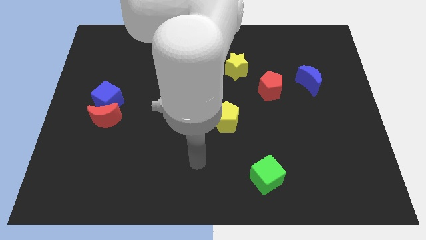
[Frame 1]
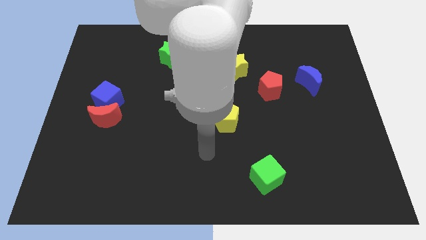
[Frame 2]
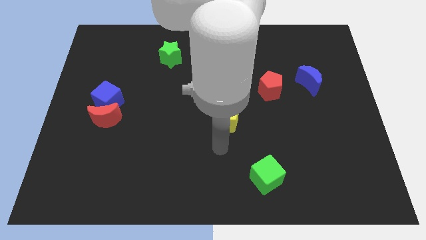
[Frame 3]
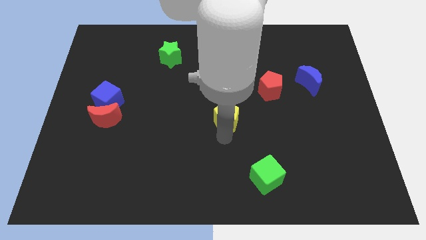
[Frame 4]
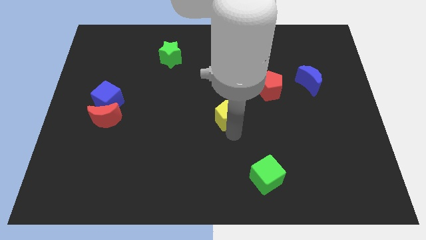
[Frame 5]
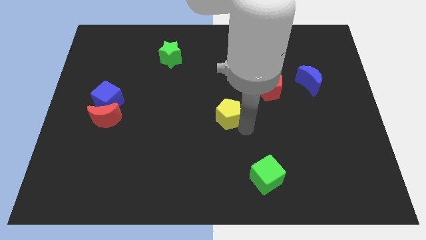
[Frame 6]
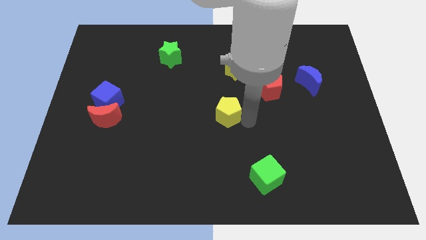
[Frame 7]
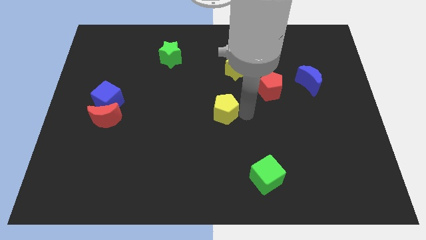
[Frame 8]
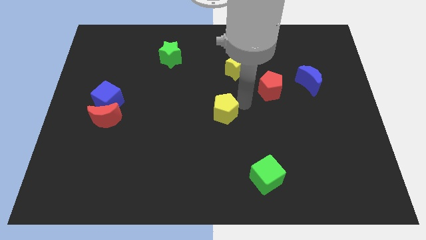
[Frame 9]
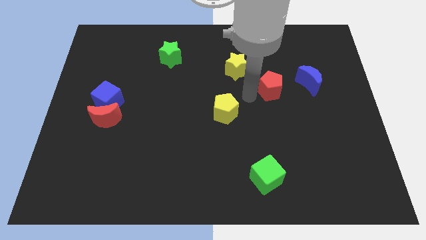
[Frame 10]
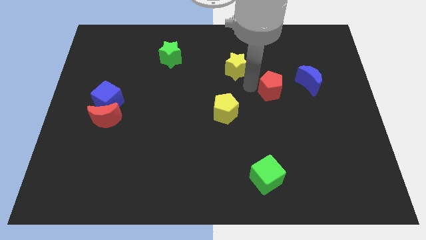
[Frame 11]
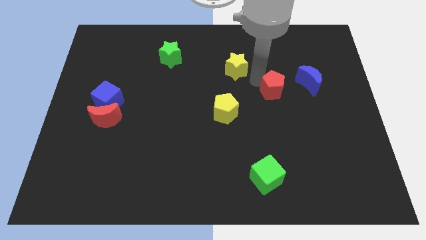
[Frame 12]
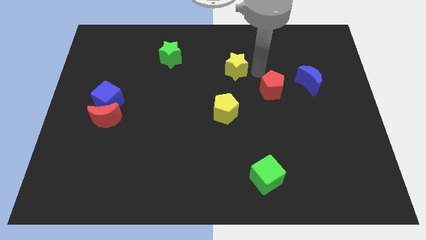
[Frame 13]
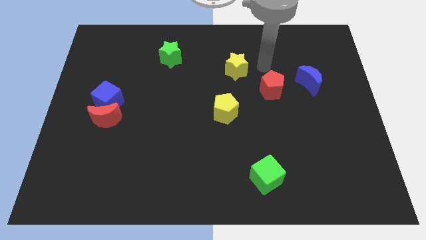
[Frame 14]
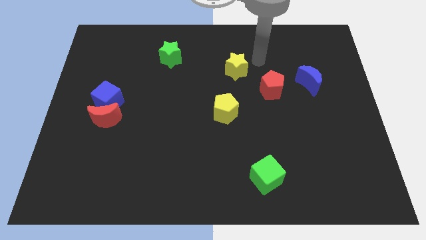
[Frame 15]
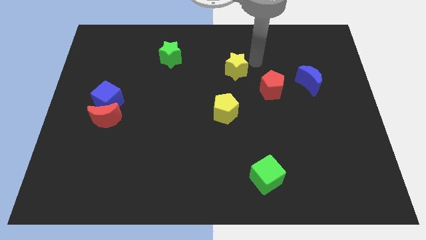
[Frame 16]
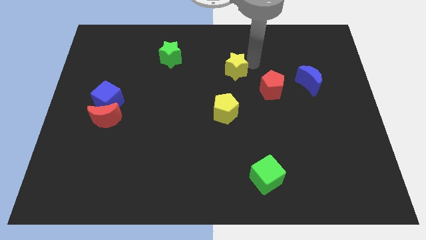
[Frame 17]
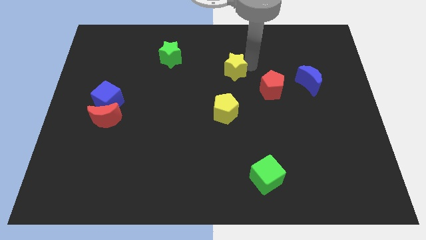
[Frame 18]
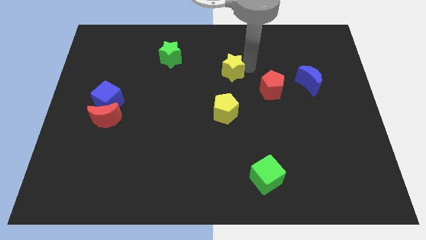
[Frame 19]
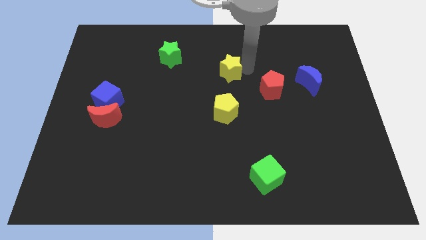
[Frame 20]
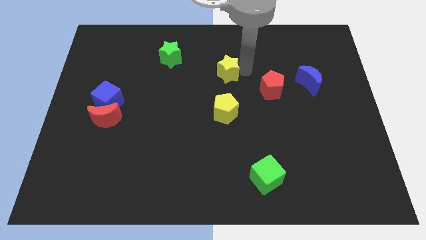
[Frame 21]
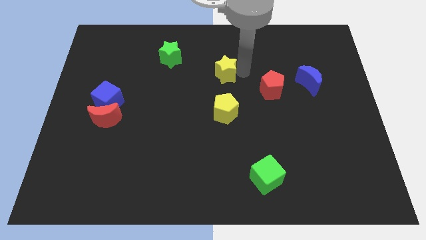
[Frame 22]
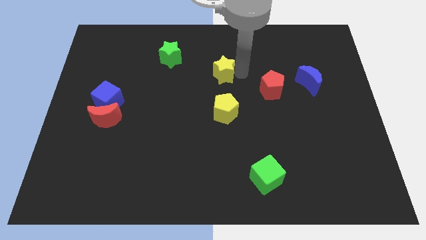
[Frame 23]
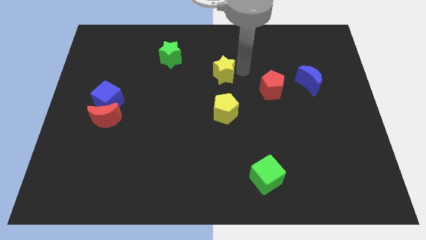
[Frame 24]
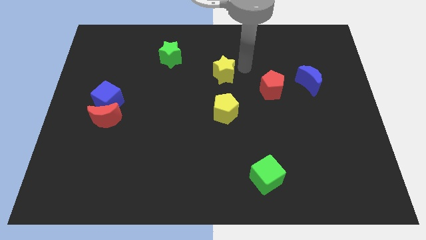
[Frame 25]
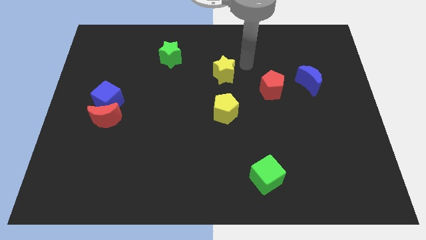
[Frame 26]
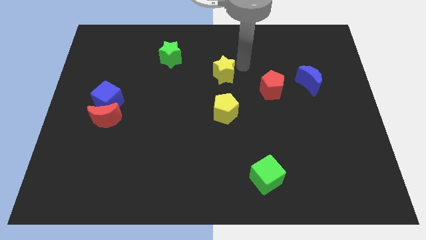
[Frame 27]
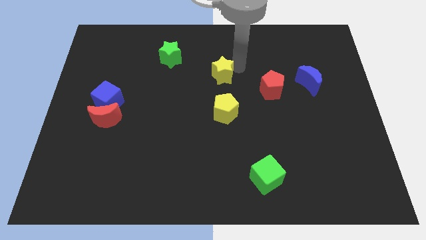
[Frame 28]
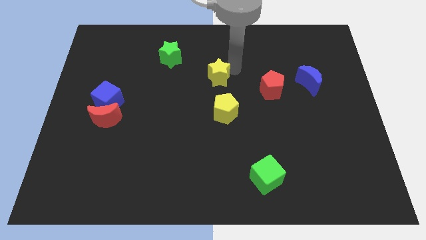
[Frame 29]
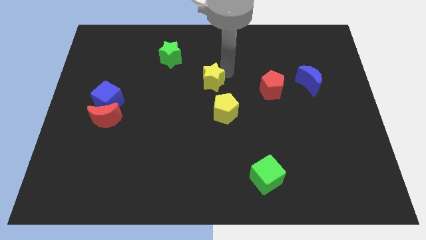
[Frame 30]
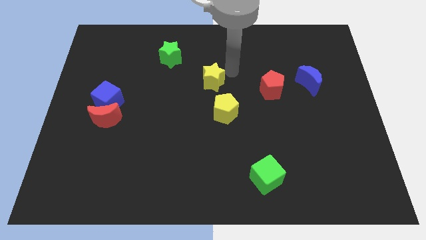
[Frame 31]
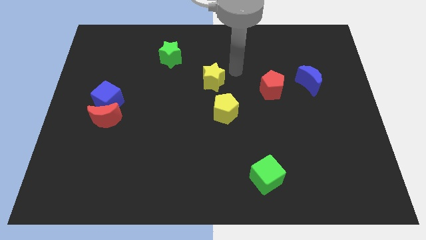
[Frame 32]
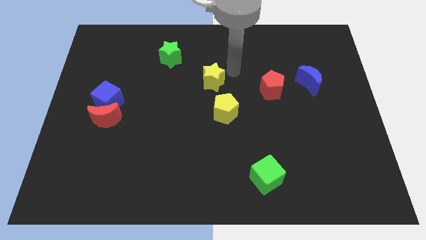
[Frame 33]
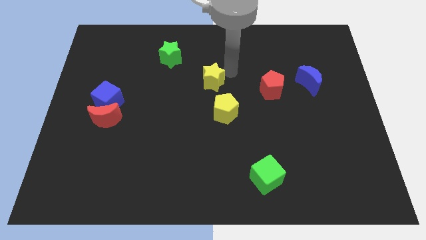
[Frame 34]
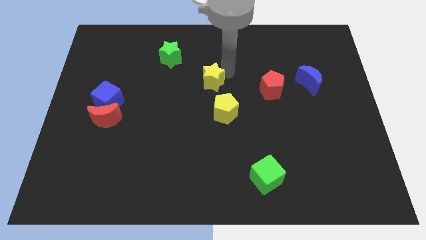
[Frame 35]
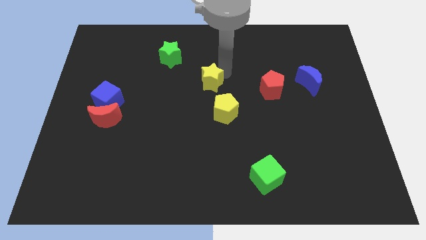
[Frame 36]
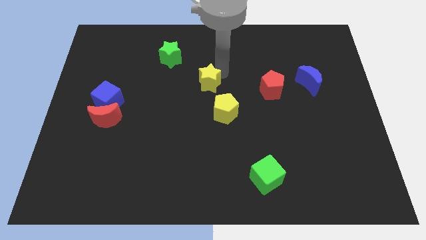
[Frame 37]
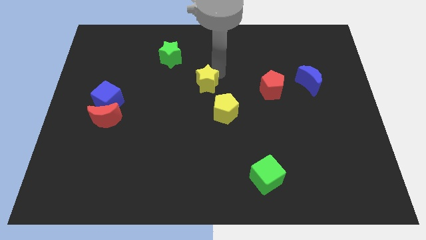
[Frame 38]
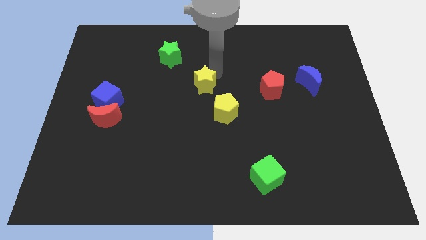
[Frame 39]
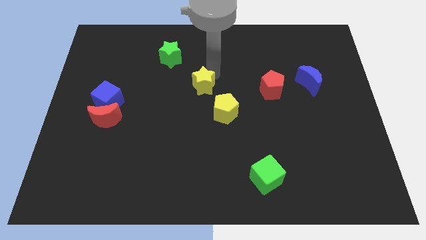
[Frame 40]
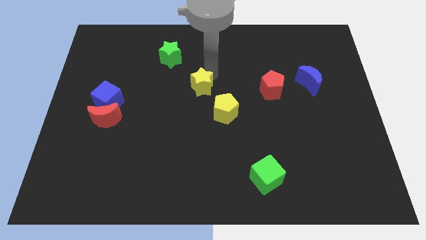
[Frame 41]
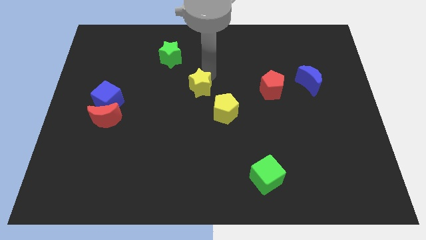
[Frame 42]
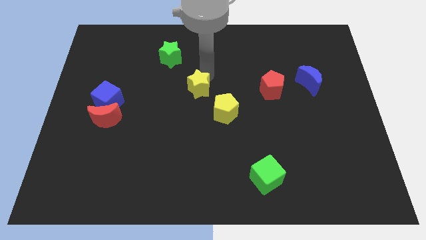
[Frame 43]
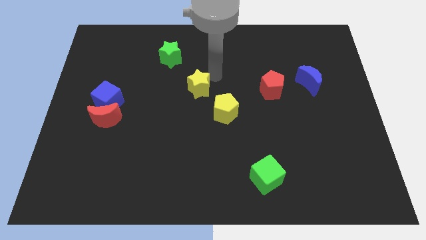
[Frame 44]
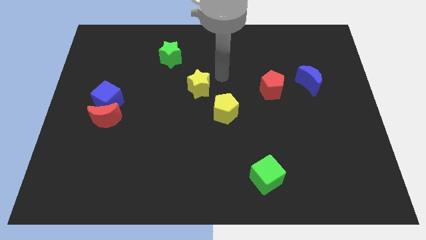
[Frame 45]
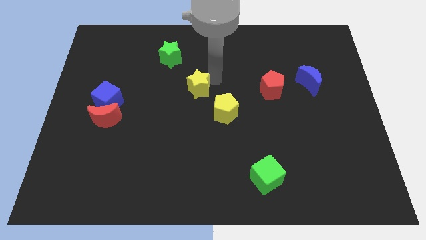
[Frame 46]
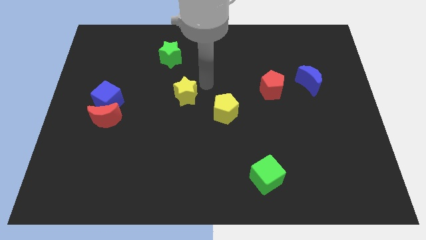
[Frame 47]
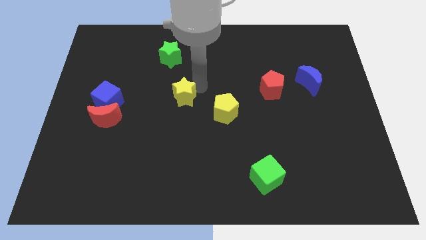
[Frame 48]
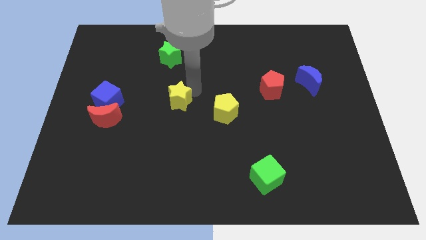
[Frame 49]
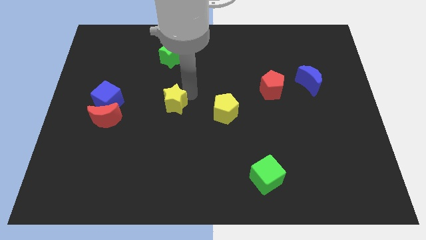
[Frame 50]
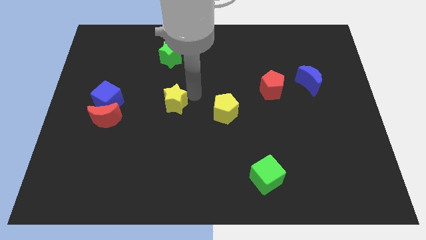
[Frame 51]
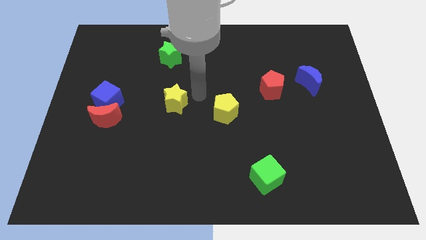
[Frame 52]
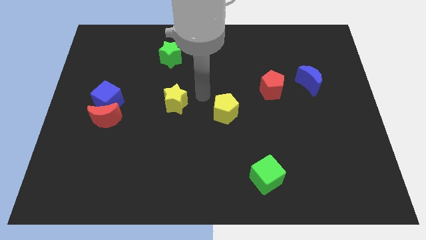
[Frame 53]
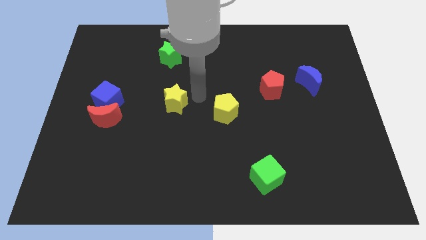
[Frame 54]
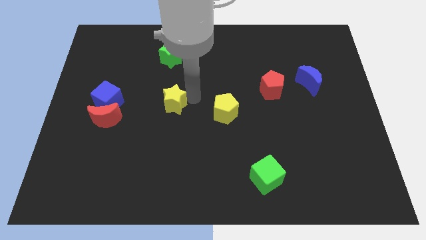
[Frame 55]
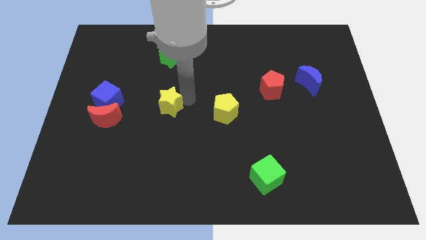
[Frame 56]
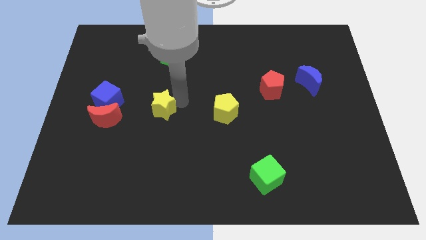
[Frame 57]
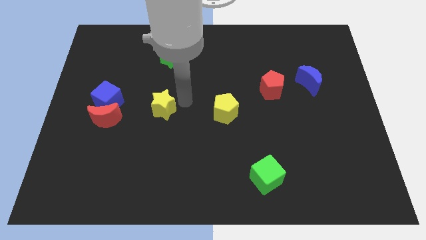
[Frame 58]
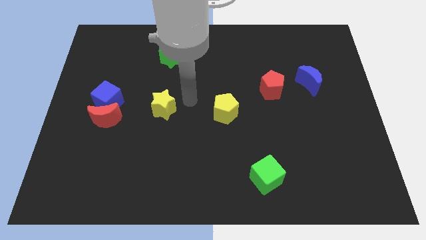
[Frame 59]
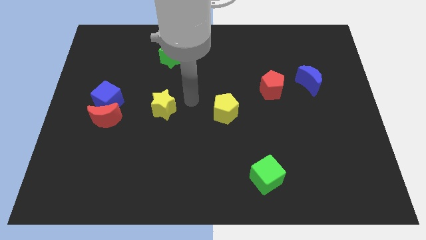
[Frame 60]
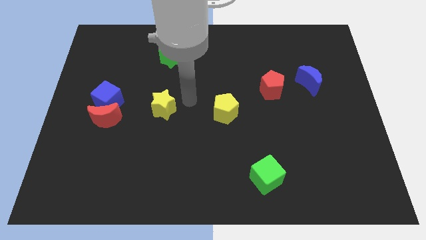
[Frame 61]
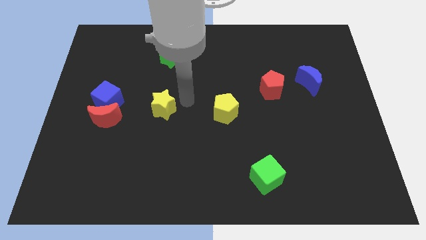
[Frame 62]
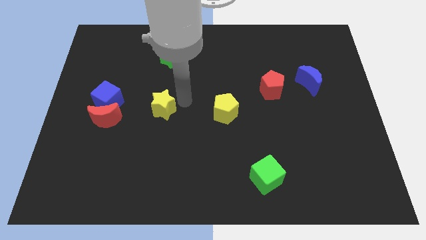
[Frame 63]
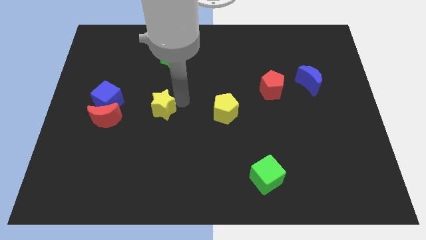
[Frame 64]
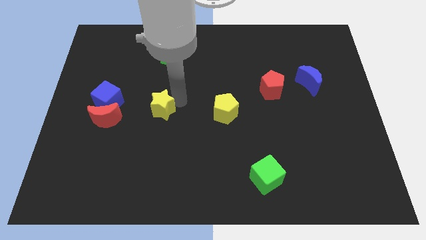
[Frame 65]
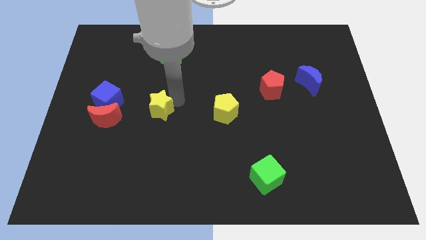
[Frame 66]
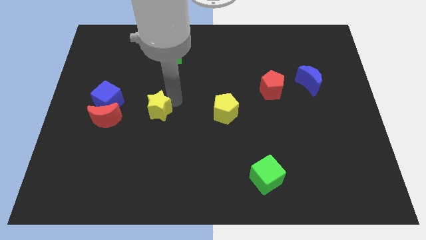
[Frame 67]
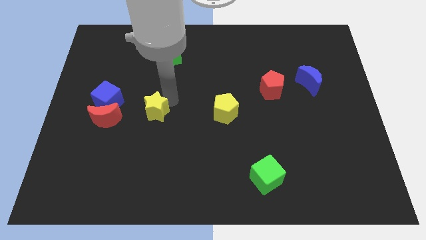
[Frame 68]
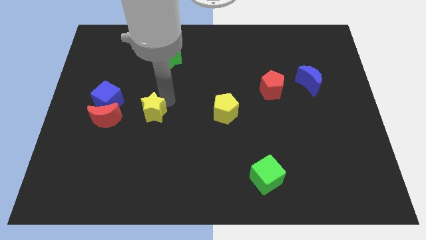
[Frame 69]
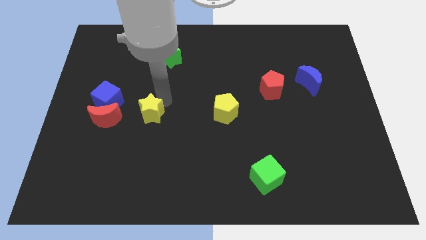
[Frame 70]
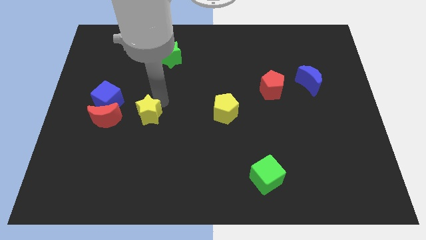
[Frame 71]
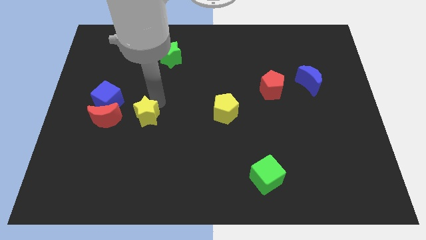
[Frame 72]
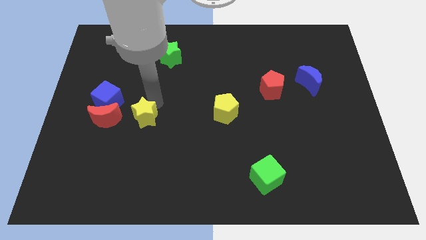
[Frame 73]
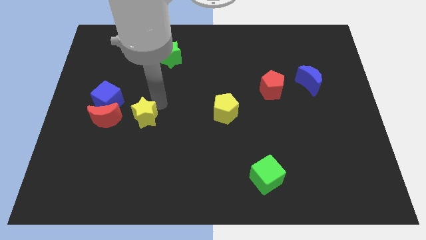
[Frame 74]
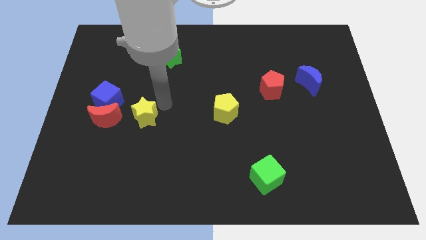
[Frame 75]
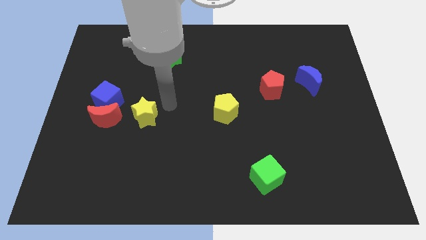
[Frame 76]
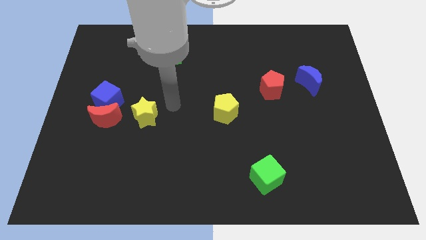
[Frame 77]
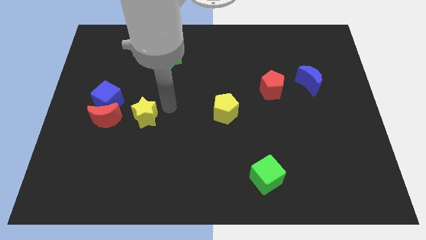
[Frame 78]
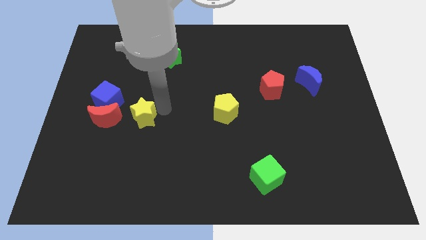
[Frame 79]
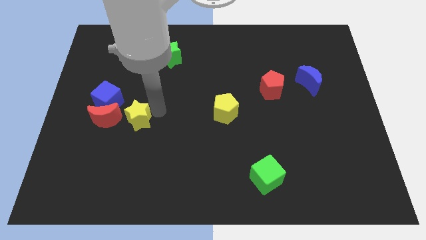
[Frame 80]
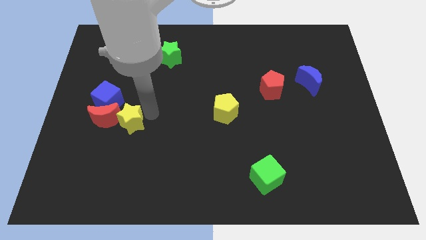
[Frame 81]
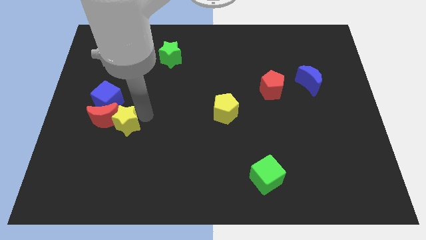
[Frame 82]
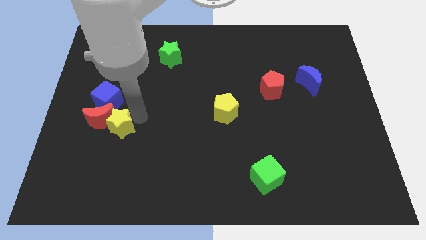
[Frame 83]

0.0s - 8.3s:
slide the yellow star below the blue cube
